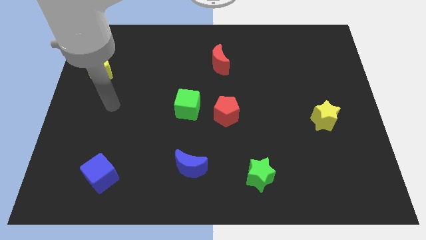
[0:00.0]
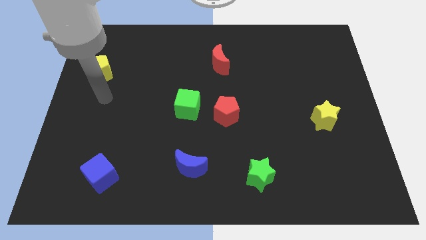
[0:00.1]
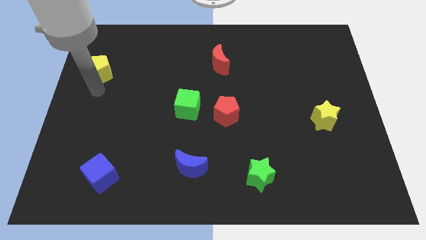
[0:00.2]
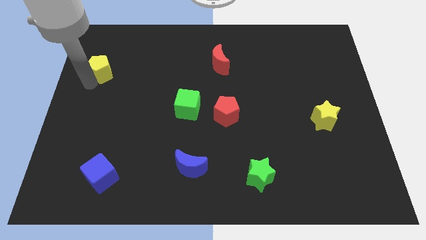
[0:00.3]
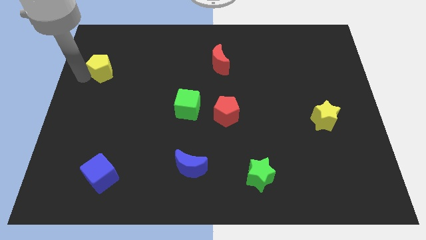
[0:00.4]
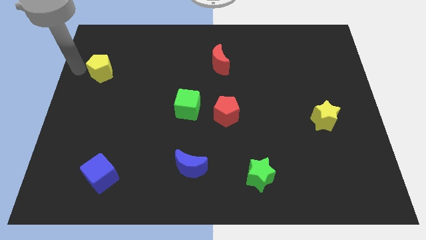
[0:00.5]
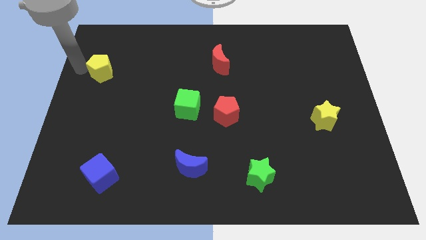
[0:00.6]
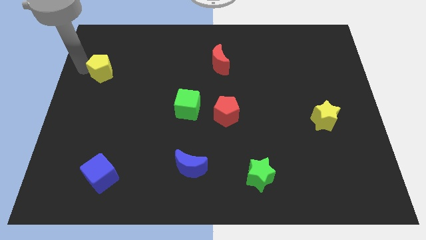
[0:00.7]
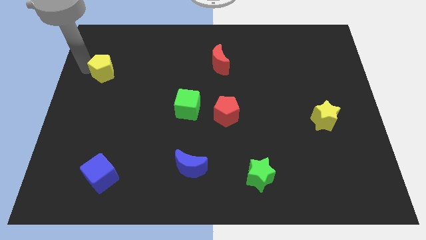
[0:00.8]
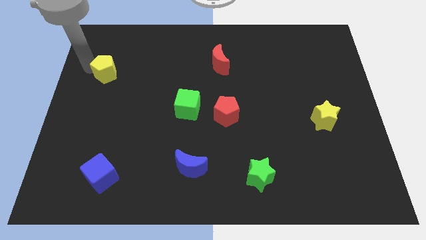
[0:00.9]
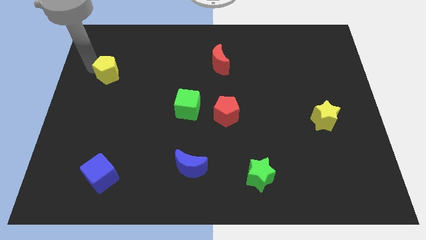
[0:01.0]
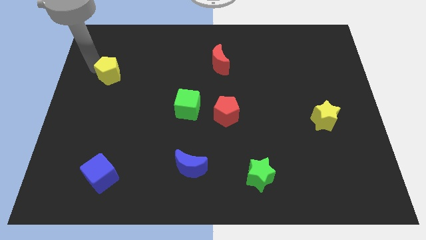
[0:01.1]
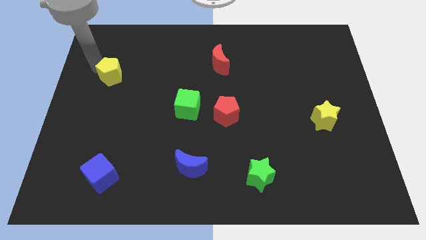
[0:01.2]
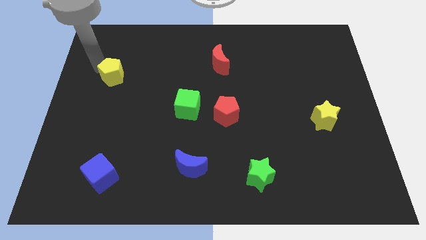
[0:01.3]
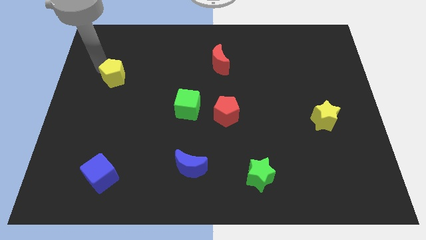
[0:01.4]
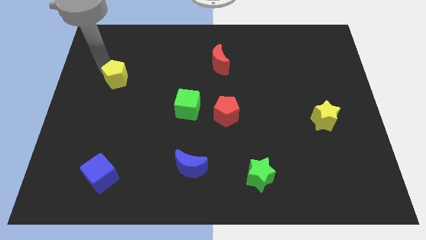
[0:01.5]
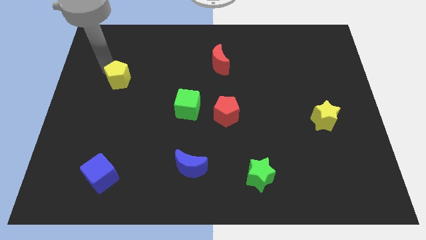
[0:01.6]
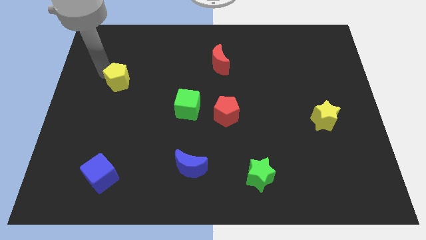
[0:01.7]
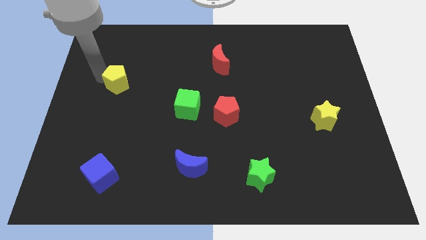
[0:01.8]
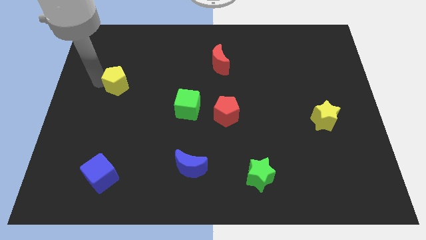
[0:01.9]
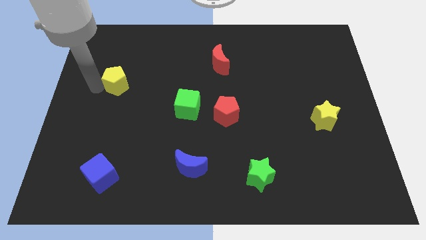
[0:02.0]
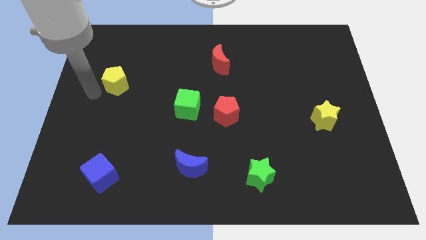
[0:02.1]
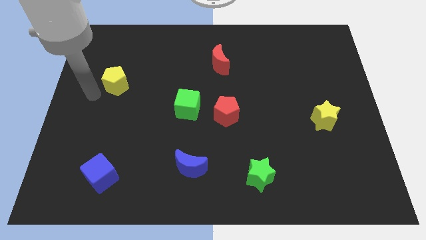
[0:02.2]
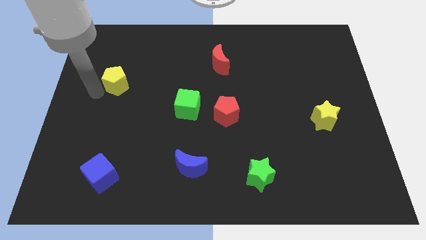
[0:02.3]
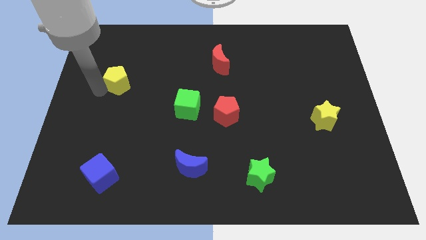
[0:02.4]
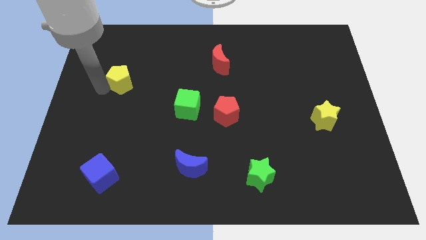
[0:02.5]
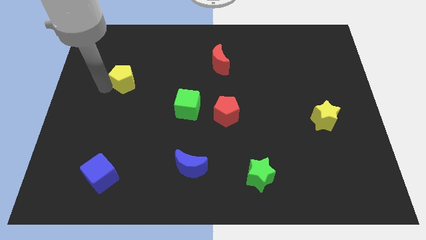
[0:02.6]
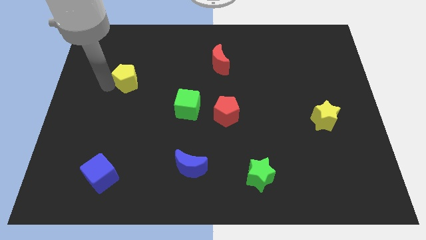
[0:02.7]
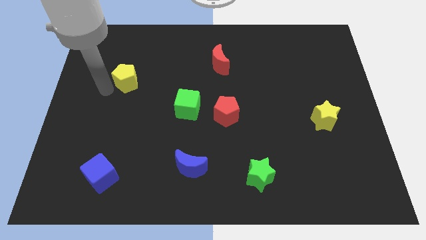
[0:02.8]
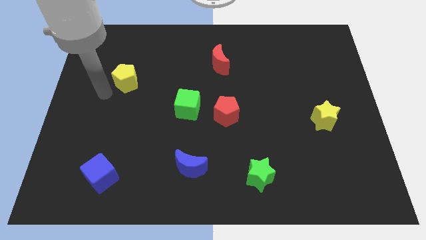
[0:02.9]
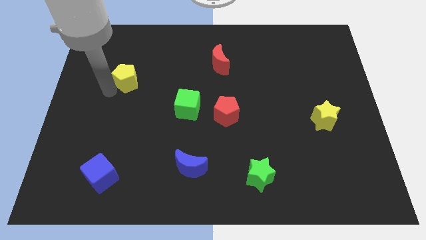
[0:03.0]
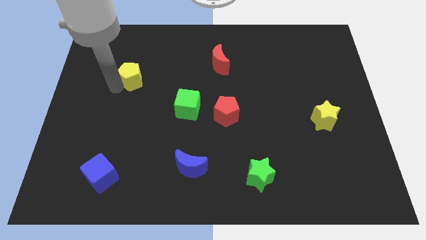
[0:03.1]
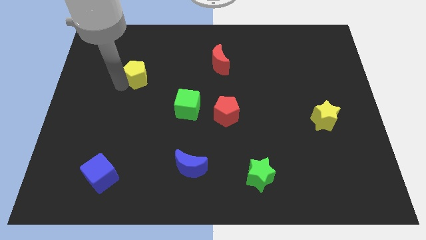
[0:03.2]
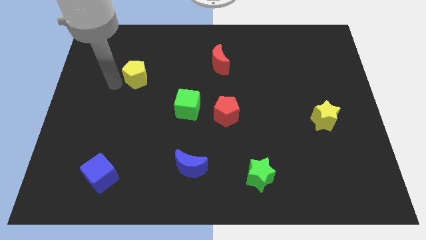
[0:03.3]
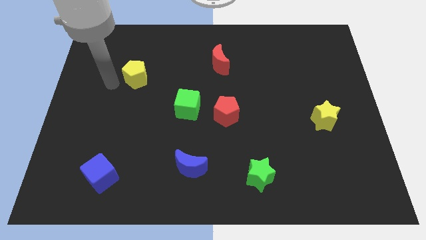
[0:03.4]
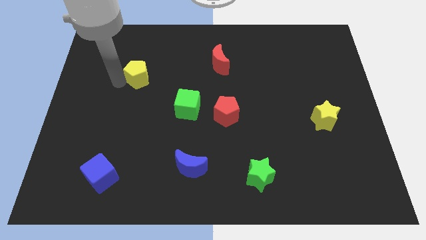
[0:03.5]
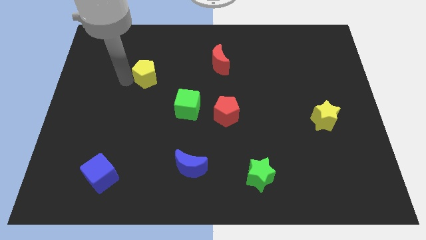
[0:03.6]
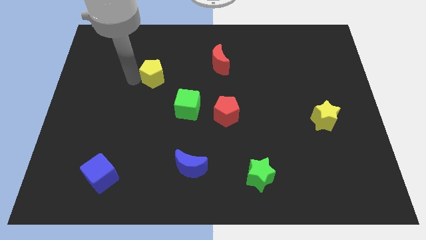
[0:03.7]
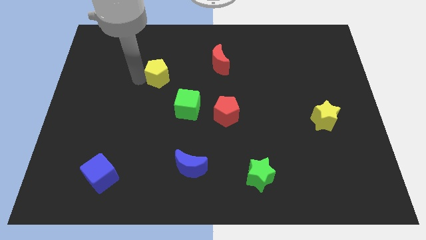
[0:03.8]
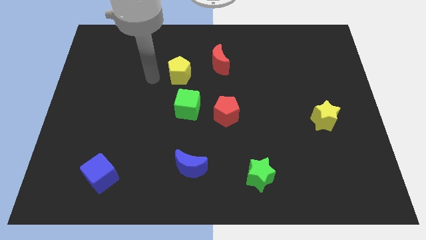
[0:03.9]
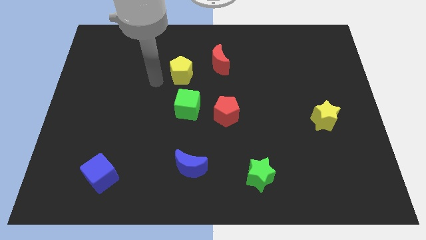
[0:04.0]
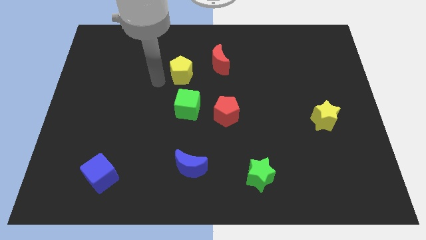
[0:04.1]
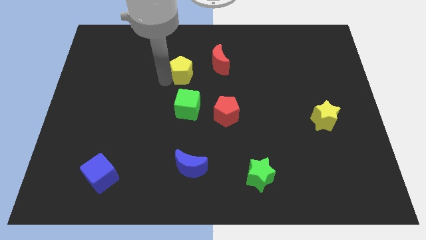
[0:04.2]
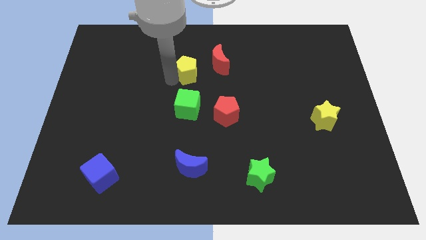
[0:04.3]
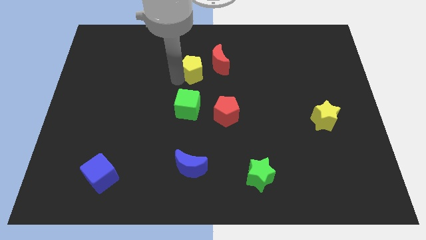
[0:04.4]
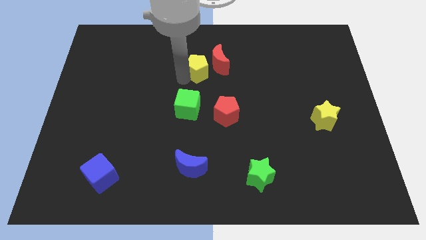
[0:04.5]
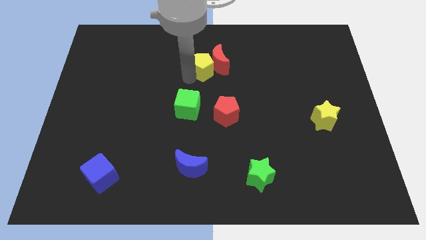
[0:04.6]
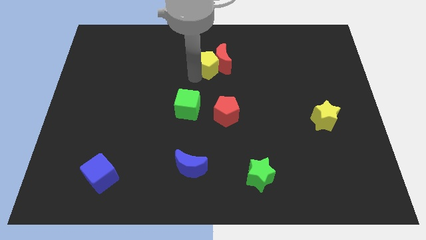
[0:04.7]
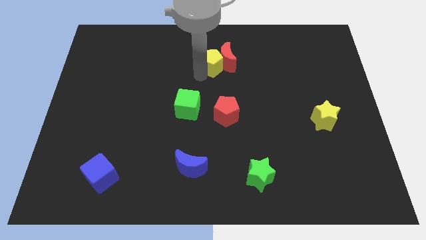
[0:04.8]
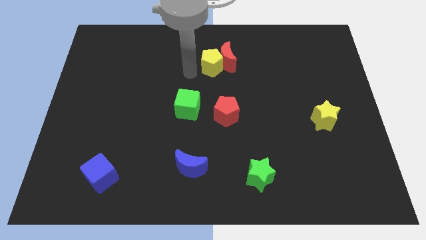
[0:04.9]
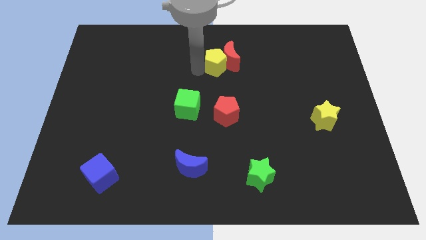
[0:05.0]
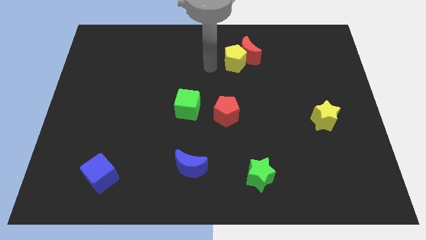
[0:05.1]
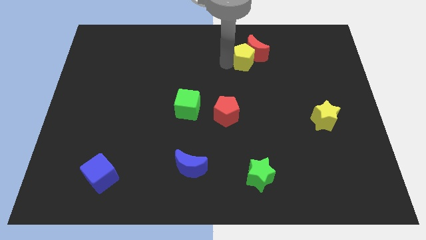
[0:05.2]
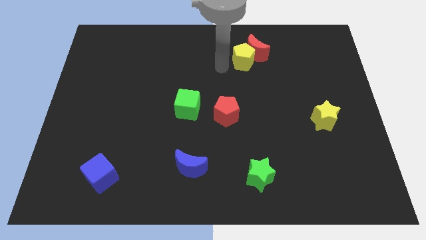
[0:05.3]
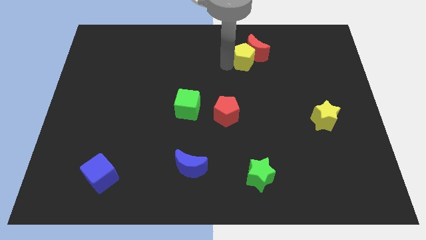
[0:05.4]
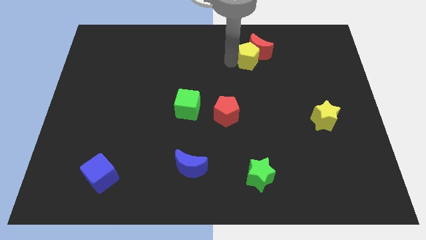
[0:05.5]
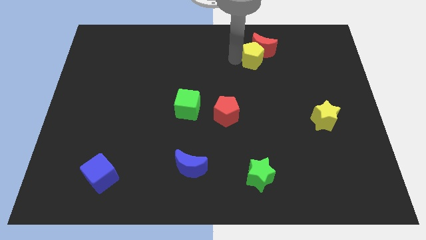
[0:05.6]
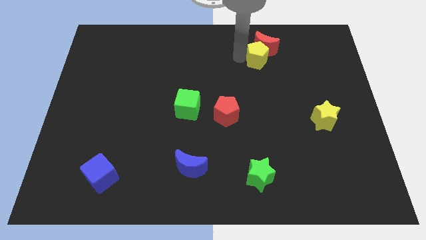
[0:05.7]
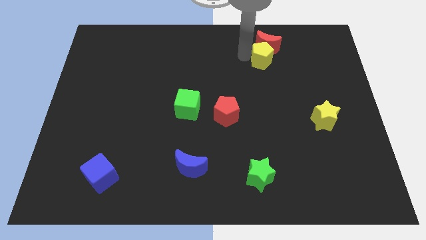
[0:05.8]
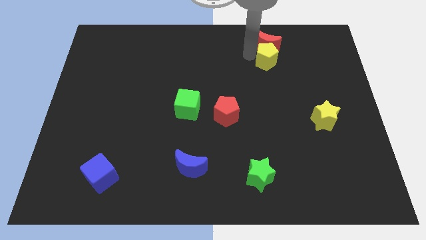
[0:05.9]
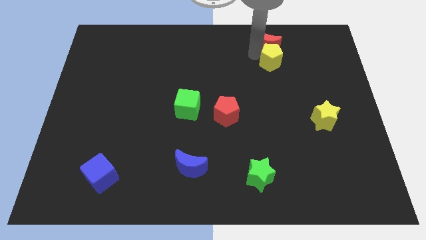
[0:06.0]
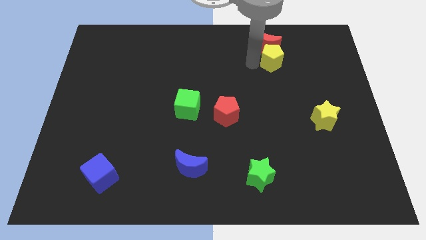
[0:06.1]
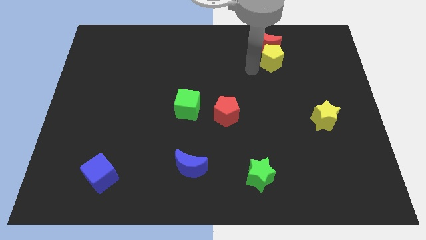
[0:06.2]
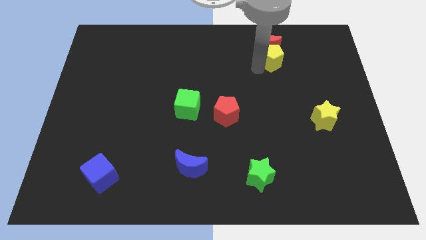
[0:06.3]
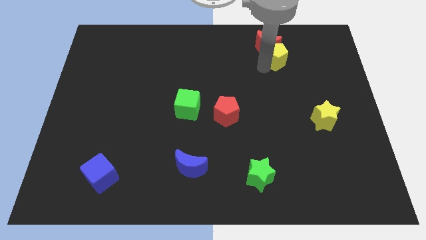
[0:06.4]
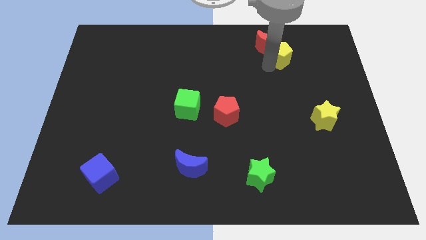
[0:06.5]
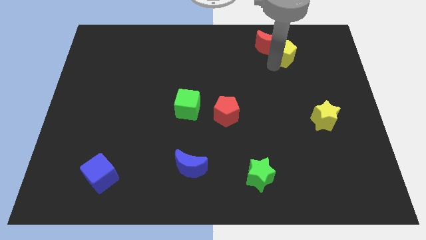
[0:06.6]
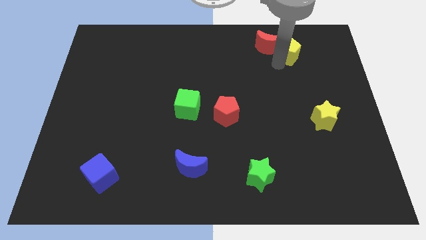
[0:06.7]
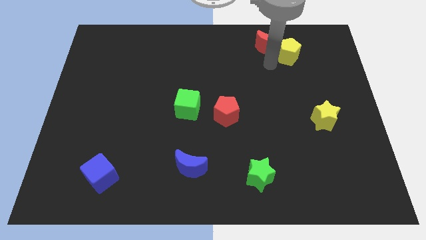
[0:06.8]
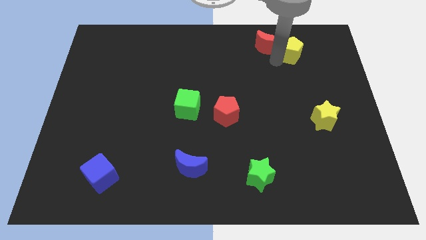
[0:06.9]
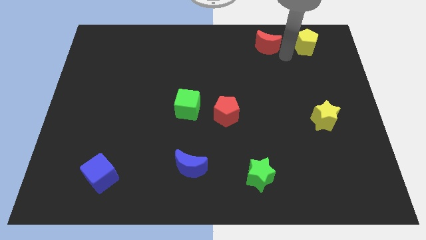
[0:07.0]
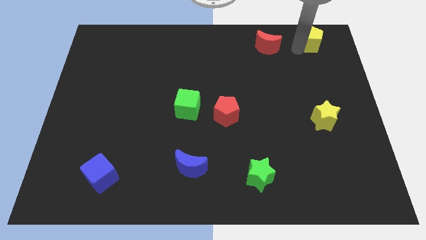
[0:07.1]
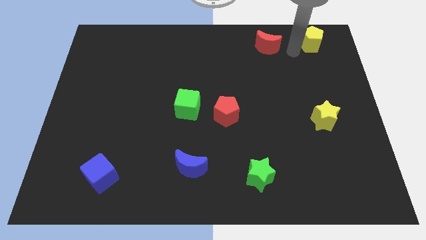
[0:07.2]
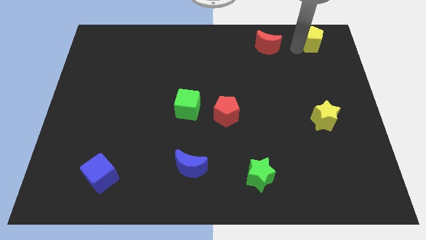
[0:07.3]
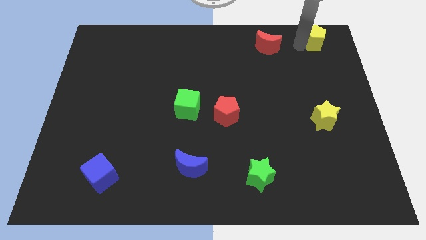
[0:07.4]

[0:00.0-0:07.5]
push the yellow pentagon to the top right

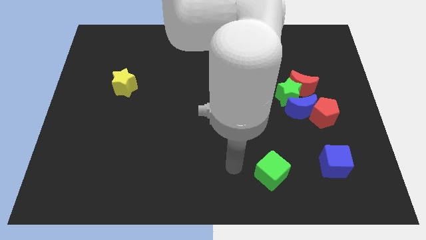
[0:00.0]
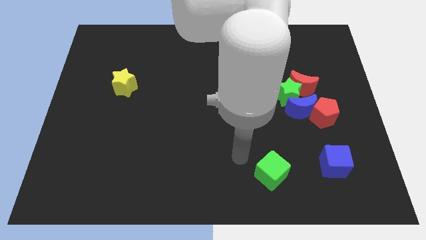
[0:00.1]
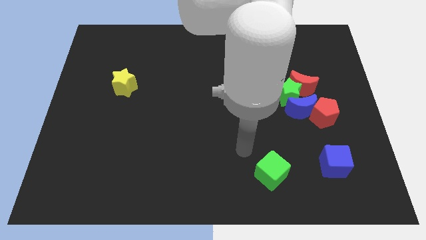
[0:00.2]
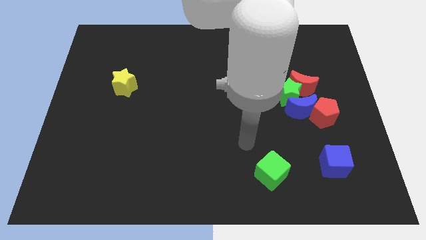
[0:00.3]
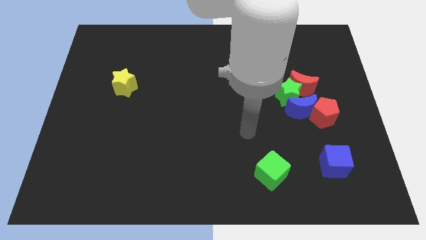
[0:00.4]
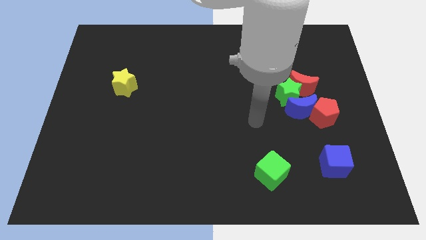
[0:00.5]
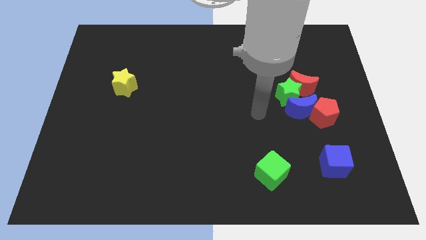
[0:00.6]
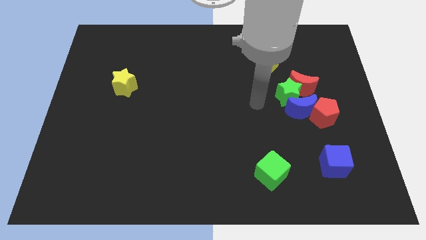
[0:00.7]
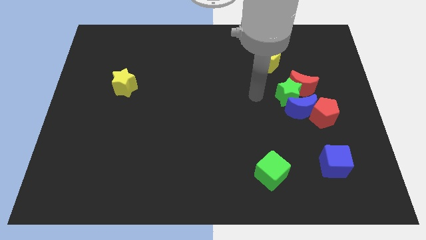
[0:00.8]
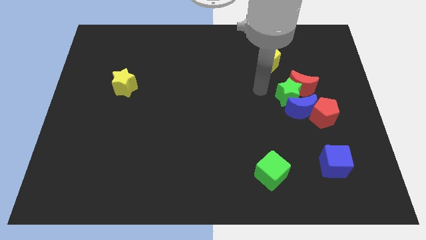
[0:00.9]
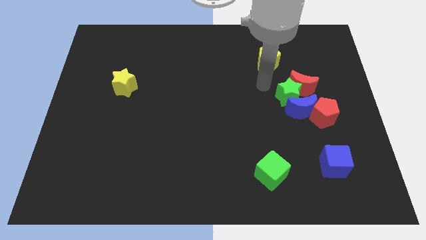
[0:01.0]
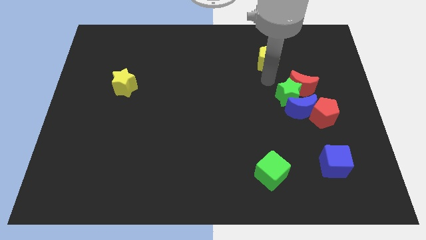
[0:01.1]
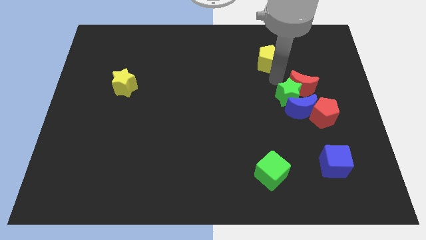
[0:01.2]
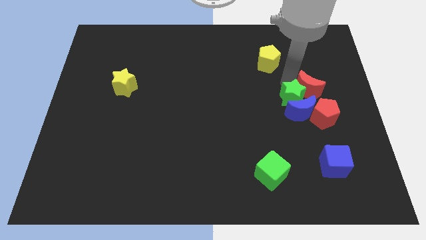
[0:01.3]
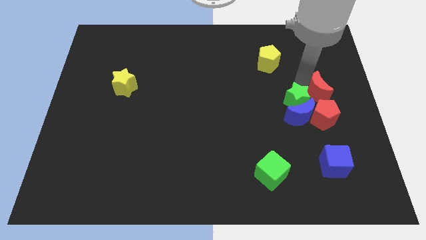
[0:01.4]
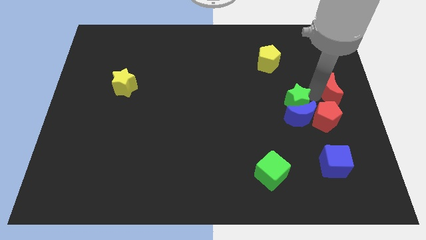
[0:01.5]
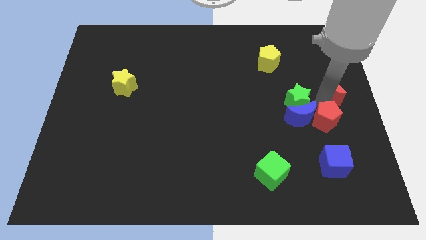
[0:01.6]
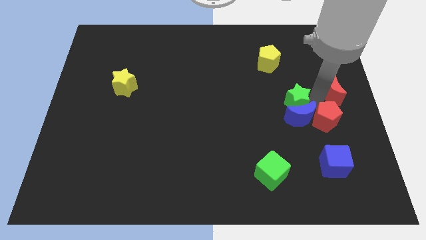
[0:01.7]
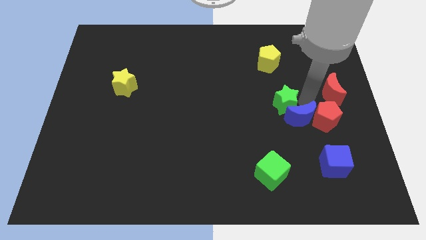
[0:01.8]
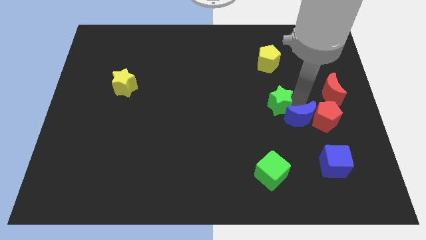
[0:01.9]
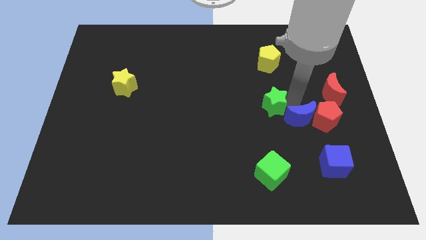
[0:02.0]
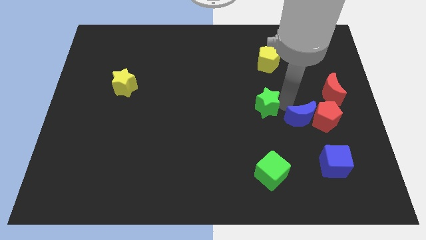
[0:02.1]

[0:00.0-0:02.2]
slide the green star to the middle of the board
